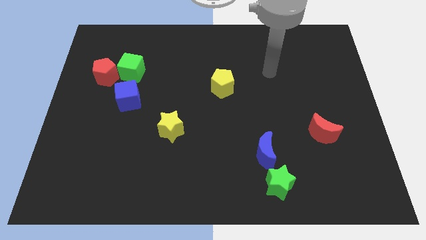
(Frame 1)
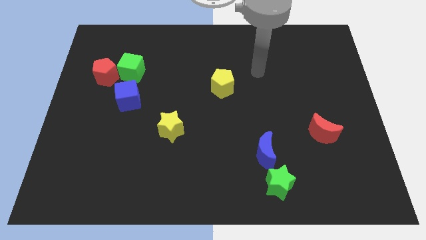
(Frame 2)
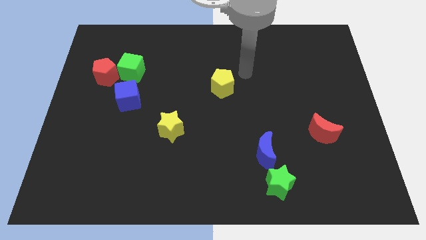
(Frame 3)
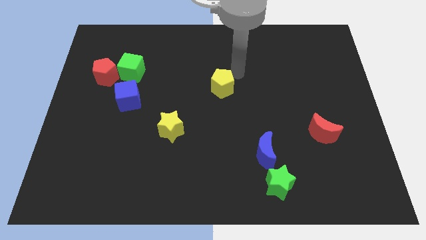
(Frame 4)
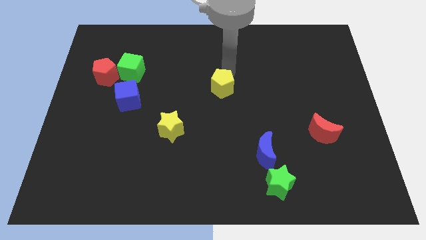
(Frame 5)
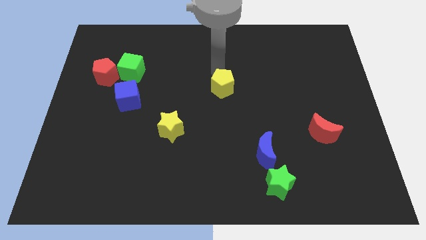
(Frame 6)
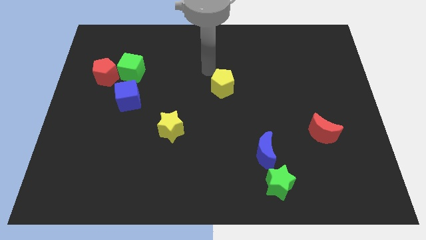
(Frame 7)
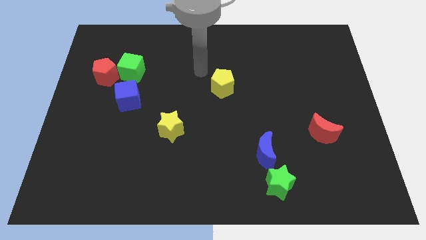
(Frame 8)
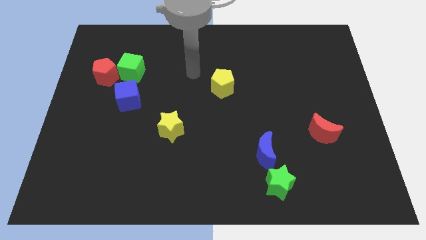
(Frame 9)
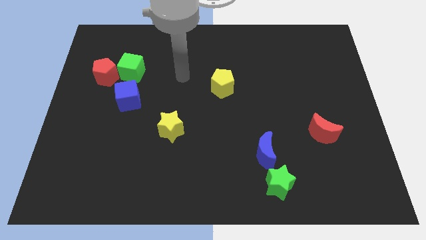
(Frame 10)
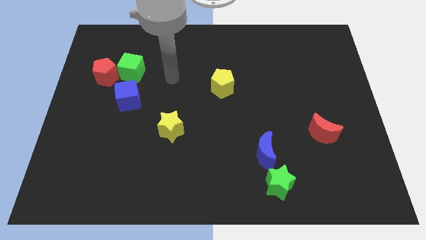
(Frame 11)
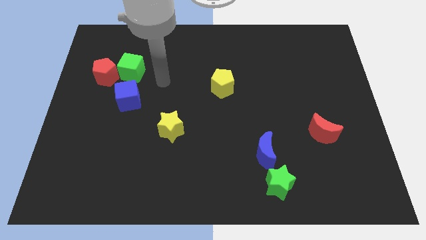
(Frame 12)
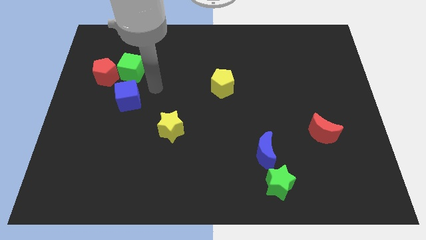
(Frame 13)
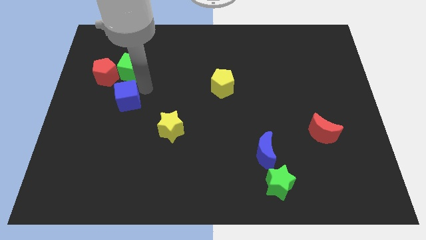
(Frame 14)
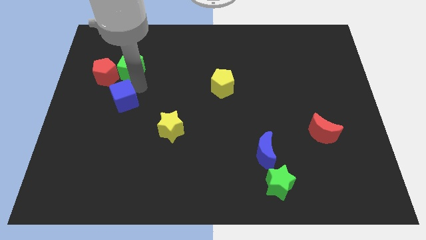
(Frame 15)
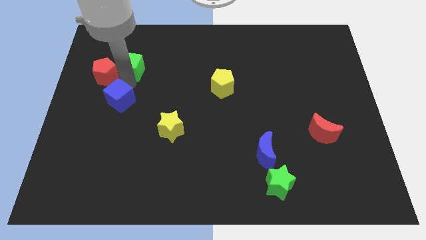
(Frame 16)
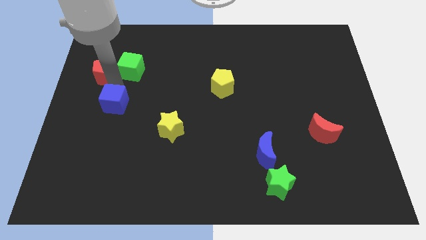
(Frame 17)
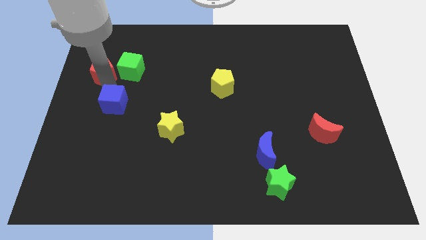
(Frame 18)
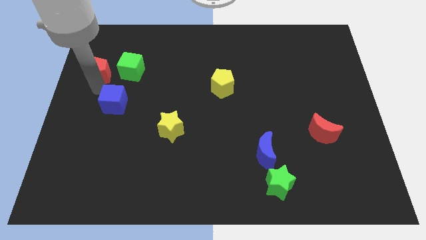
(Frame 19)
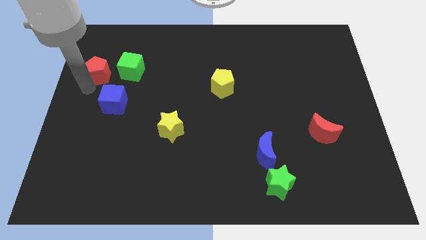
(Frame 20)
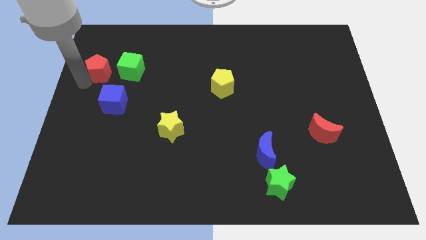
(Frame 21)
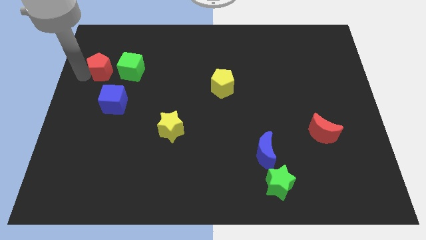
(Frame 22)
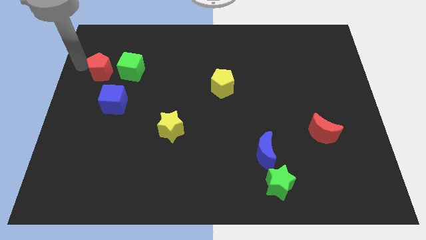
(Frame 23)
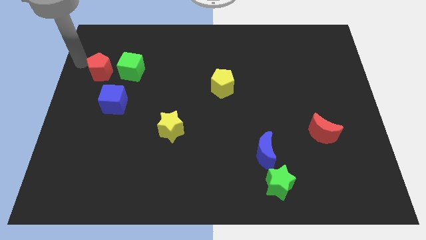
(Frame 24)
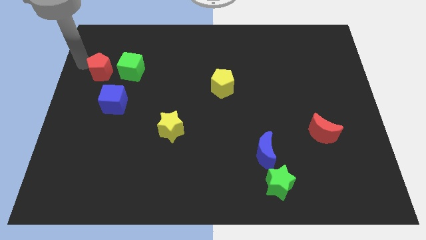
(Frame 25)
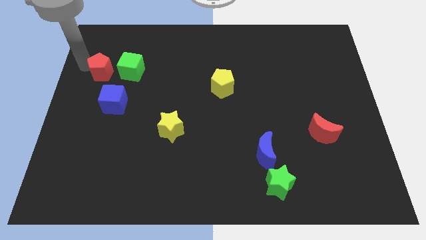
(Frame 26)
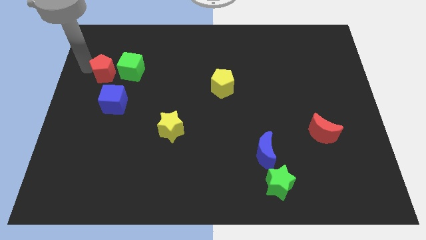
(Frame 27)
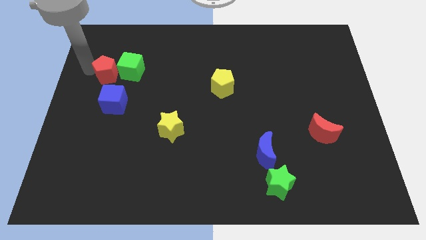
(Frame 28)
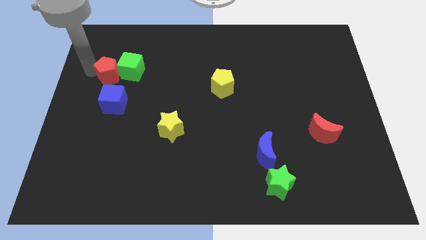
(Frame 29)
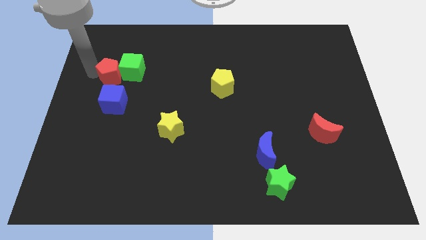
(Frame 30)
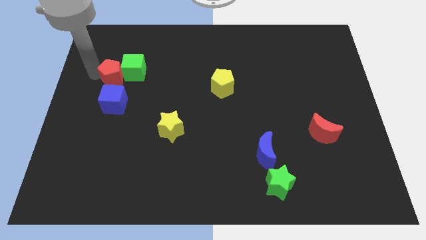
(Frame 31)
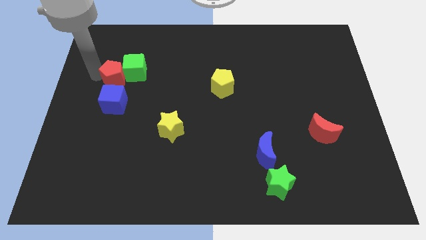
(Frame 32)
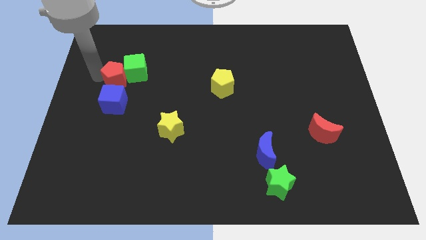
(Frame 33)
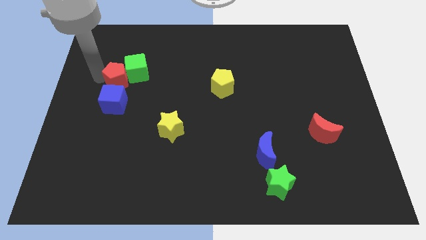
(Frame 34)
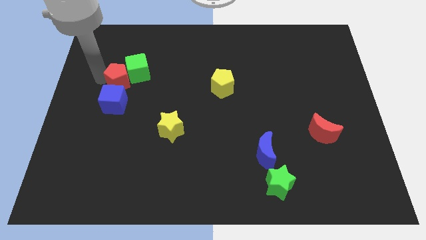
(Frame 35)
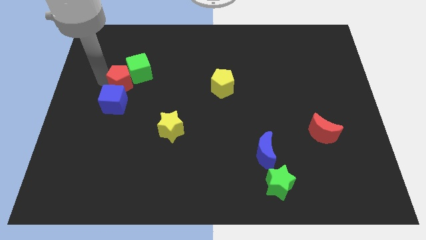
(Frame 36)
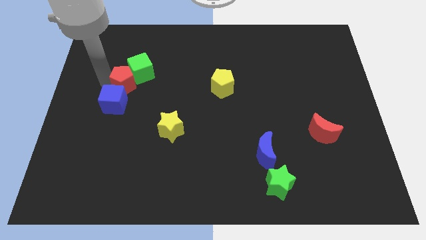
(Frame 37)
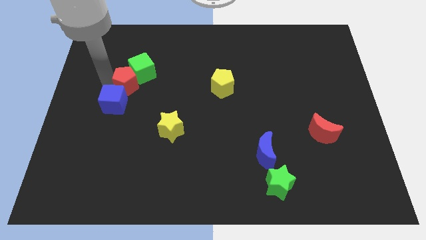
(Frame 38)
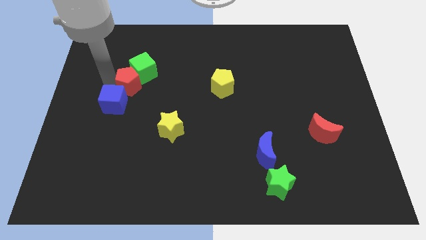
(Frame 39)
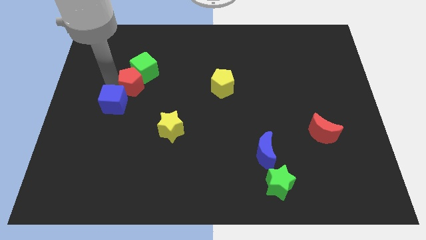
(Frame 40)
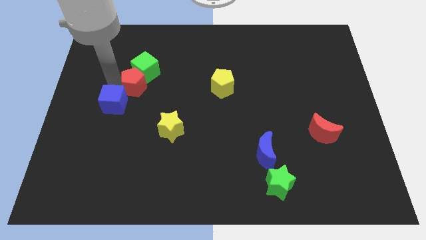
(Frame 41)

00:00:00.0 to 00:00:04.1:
slightly slide the red pentagon to the right

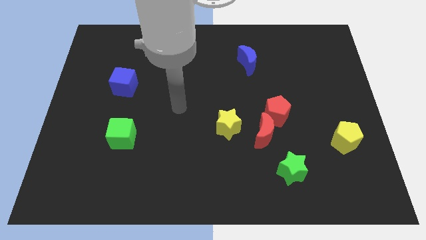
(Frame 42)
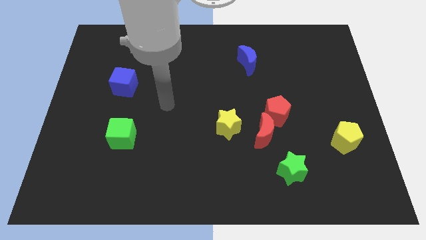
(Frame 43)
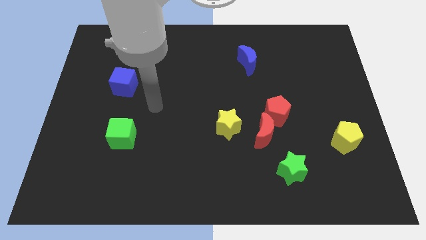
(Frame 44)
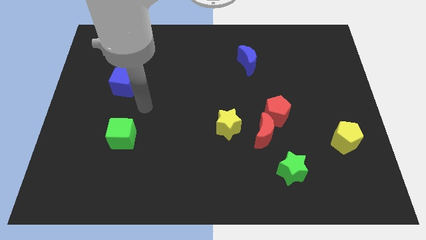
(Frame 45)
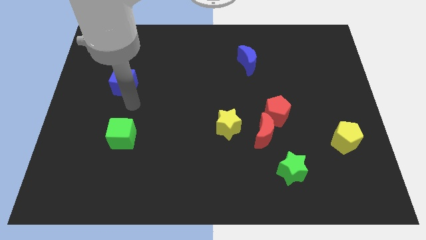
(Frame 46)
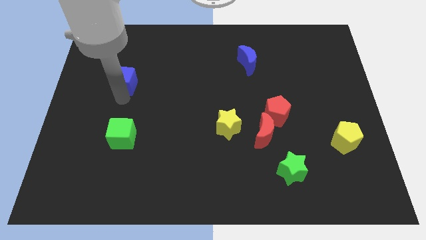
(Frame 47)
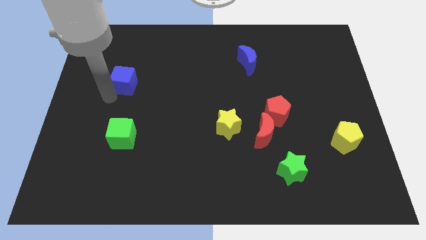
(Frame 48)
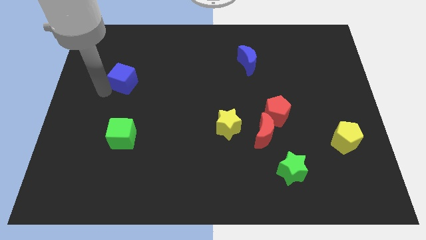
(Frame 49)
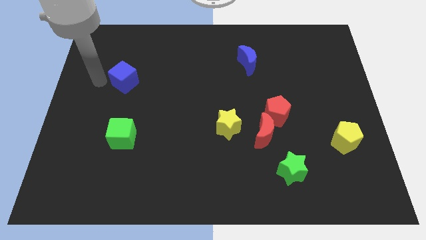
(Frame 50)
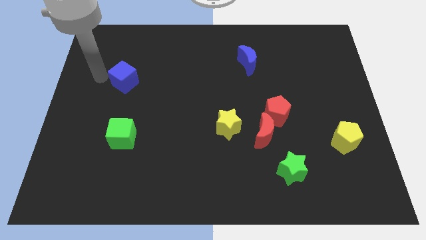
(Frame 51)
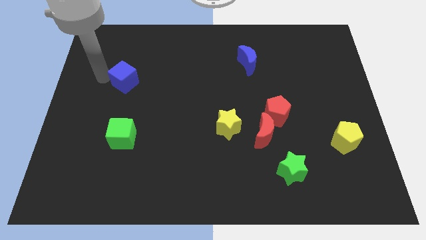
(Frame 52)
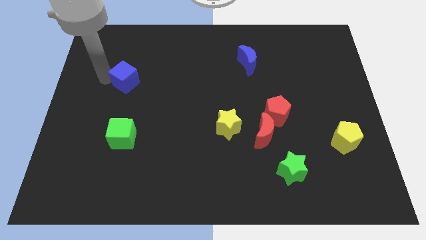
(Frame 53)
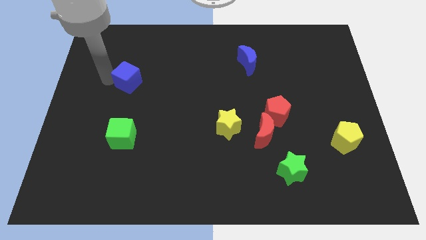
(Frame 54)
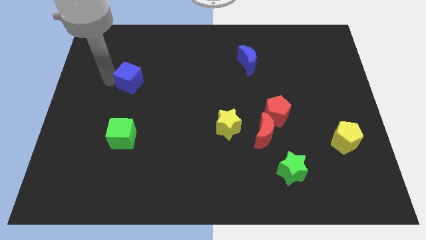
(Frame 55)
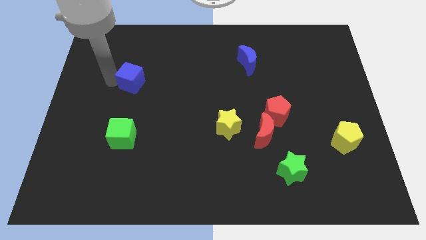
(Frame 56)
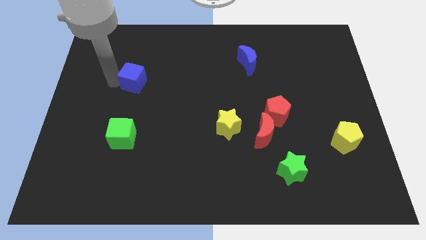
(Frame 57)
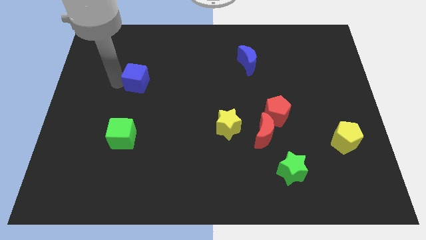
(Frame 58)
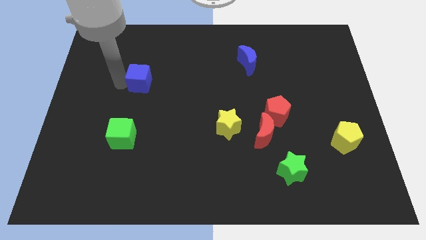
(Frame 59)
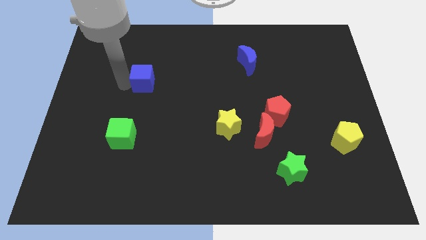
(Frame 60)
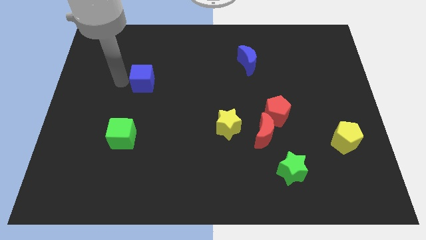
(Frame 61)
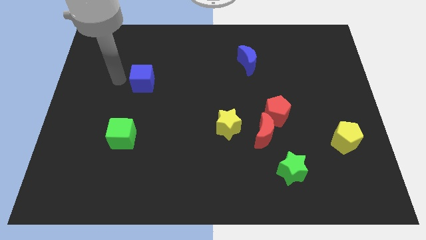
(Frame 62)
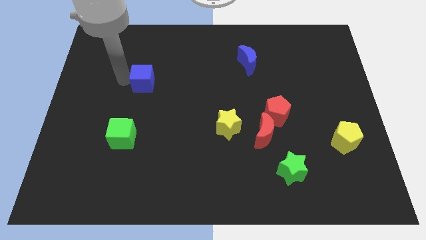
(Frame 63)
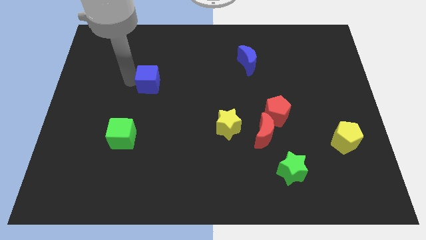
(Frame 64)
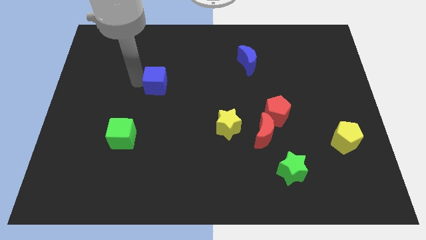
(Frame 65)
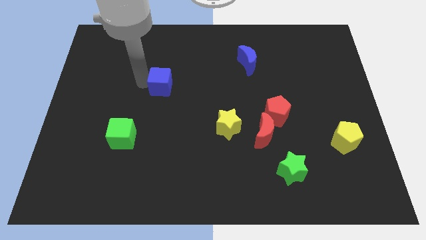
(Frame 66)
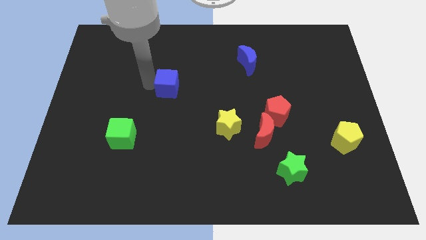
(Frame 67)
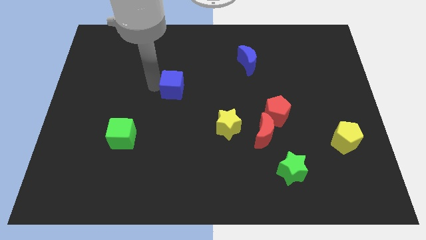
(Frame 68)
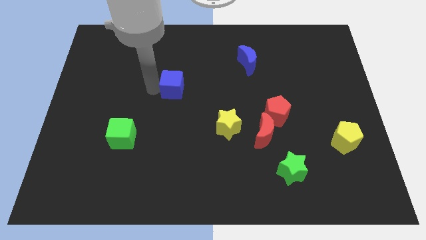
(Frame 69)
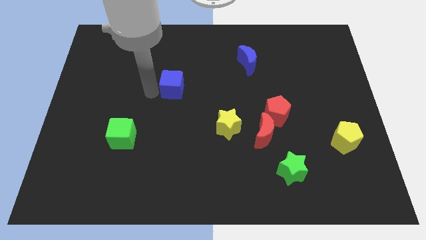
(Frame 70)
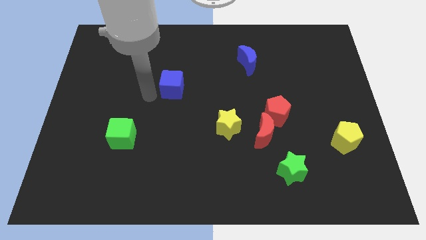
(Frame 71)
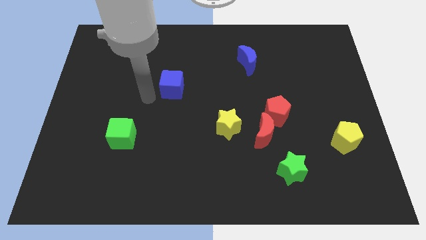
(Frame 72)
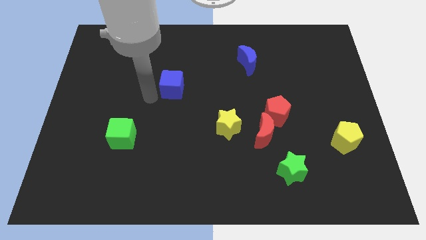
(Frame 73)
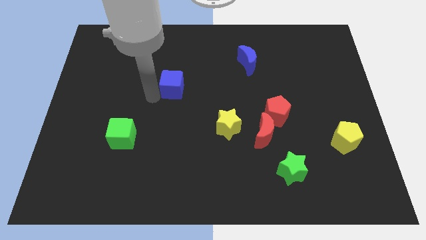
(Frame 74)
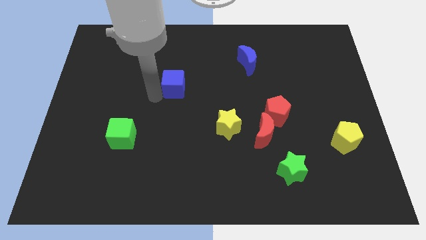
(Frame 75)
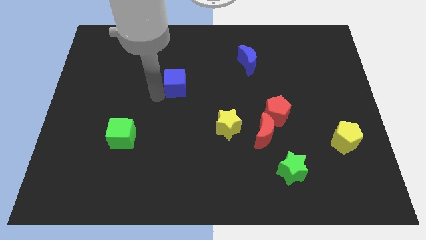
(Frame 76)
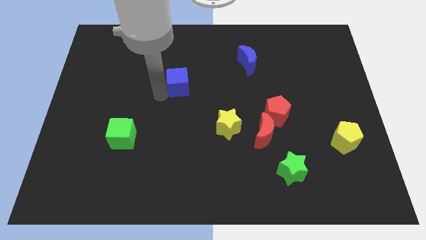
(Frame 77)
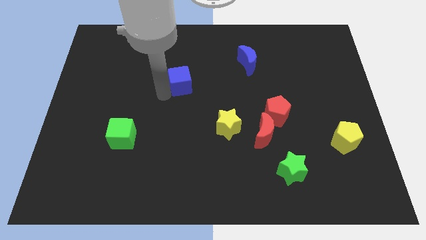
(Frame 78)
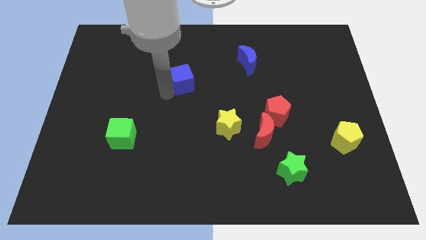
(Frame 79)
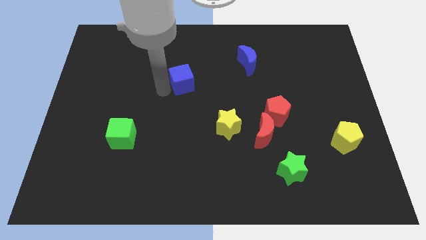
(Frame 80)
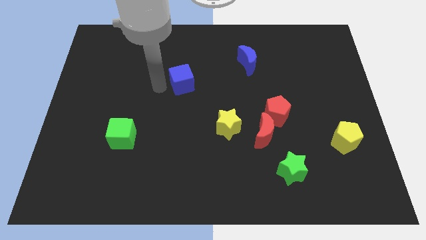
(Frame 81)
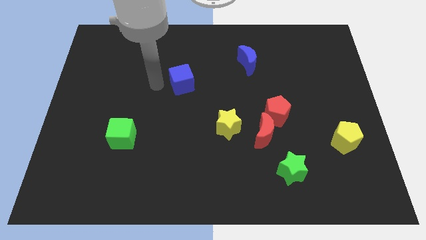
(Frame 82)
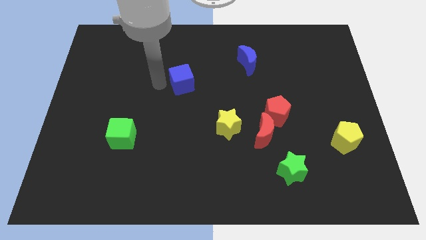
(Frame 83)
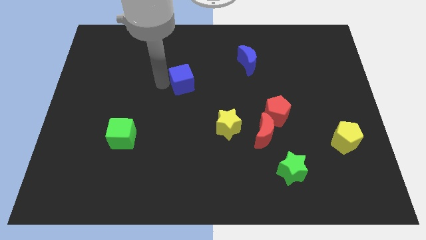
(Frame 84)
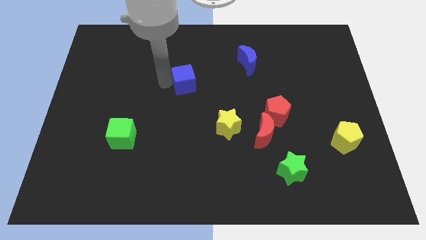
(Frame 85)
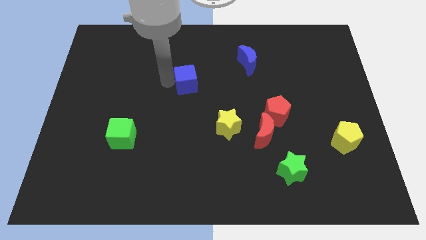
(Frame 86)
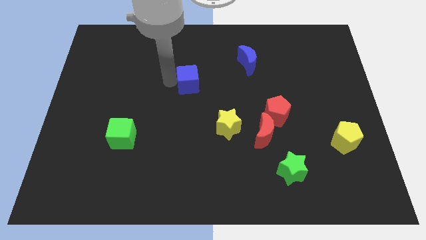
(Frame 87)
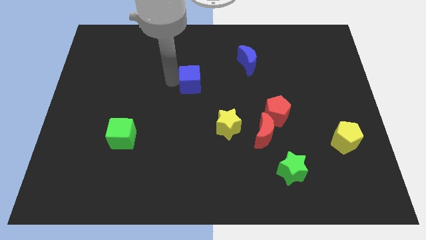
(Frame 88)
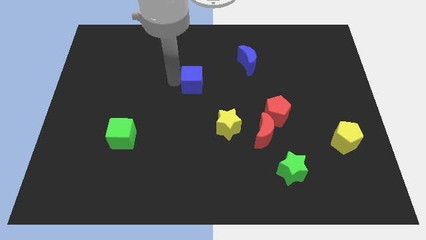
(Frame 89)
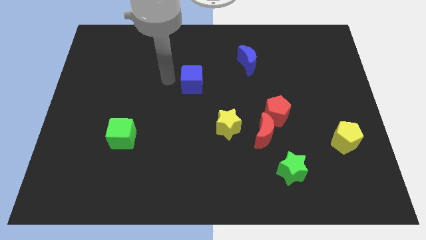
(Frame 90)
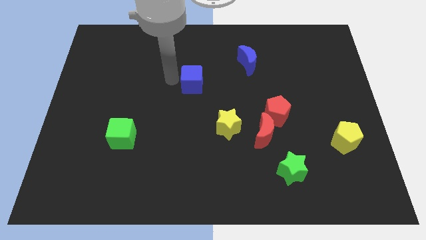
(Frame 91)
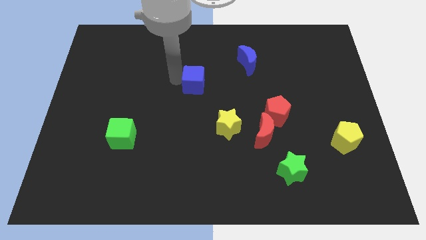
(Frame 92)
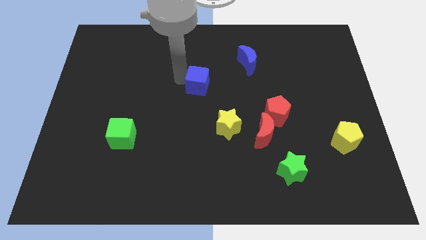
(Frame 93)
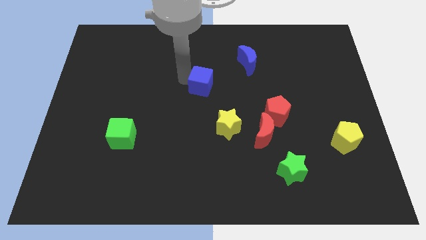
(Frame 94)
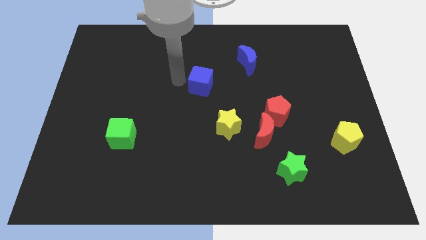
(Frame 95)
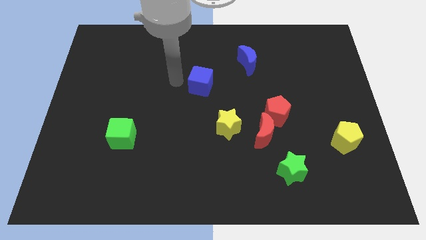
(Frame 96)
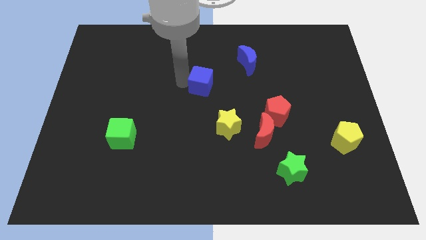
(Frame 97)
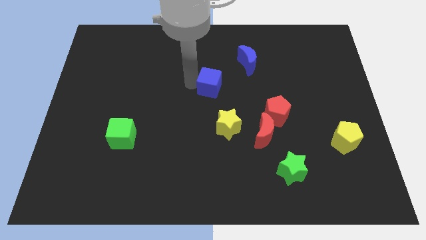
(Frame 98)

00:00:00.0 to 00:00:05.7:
push the blue cube to the right
